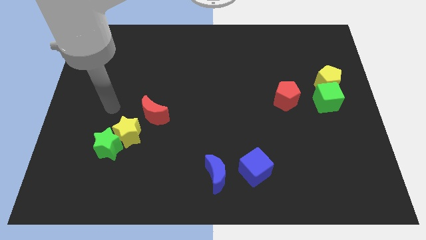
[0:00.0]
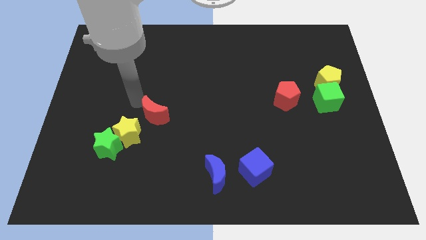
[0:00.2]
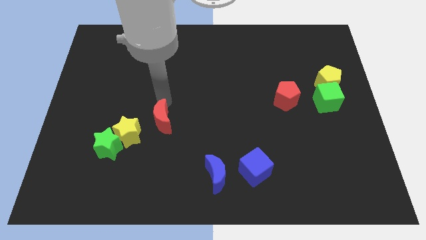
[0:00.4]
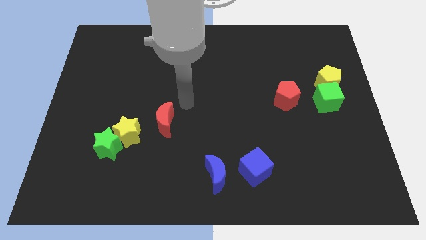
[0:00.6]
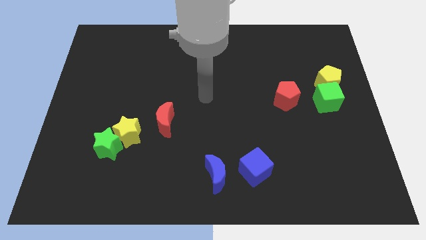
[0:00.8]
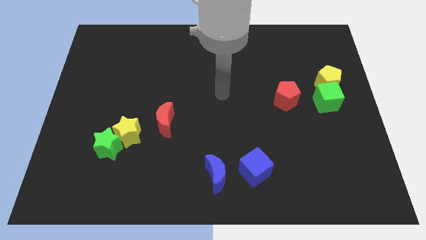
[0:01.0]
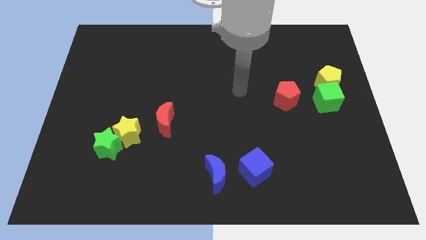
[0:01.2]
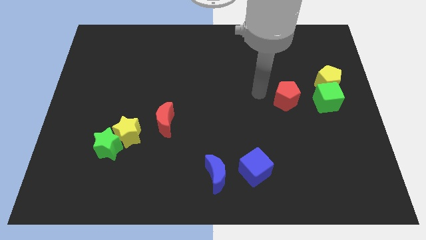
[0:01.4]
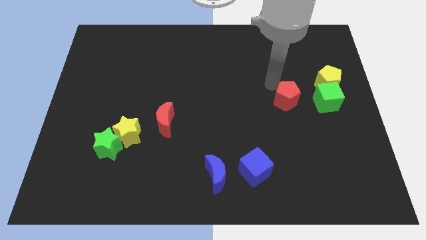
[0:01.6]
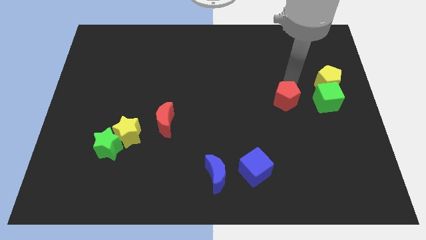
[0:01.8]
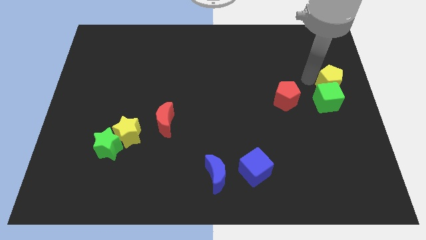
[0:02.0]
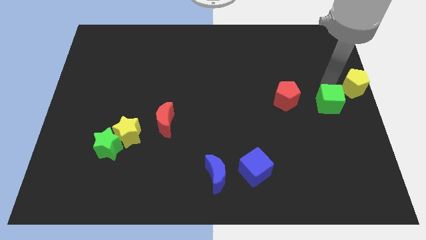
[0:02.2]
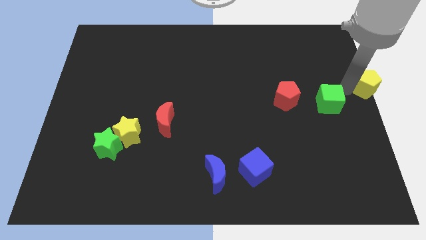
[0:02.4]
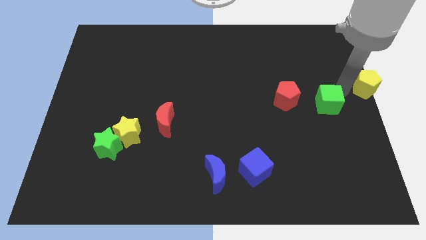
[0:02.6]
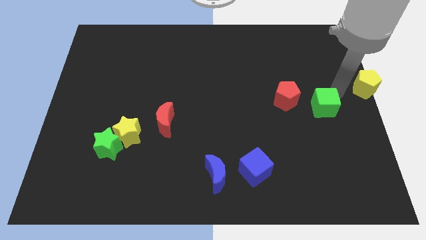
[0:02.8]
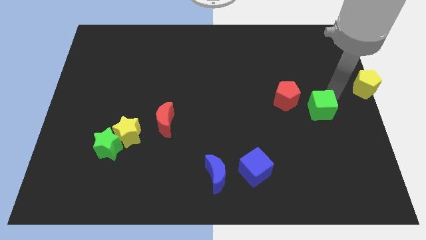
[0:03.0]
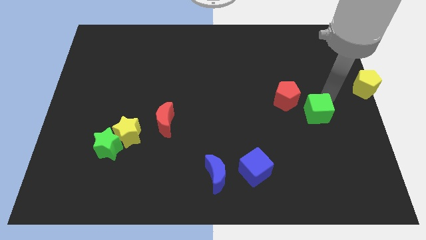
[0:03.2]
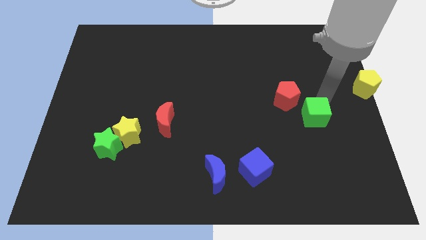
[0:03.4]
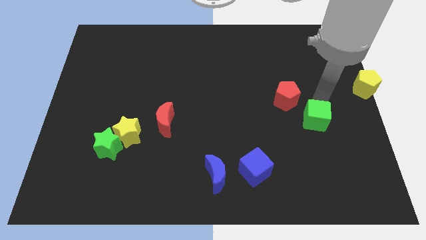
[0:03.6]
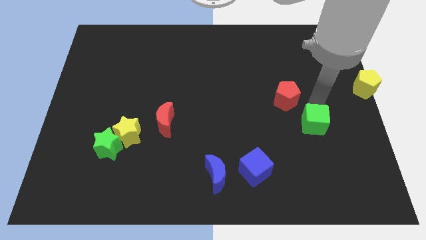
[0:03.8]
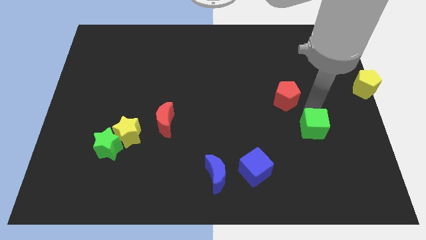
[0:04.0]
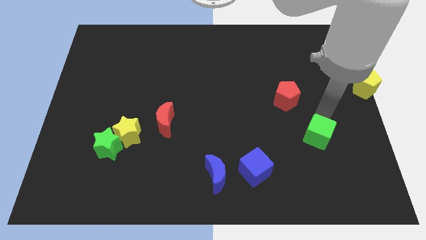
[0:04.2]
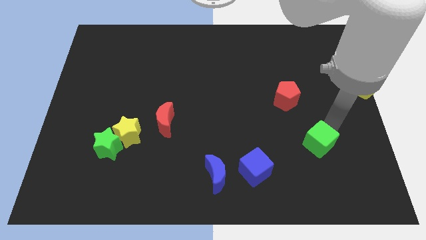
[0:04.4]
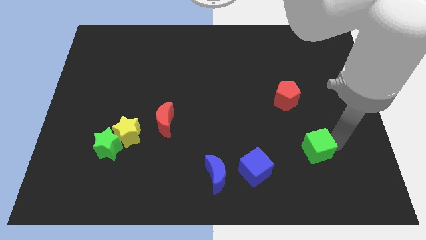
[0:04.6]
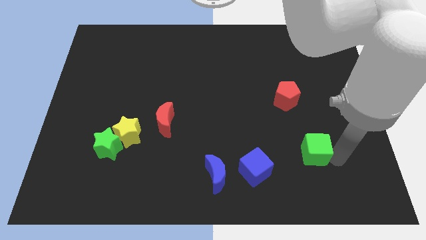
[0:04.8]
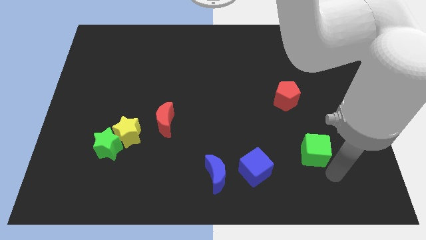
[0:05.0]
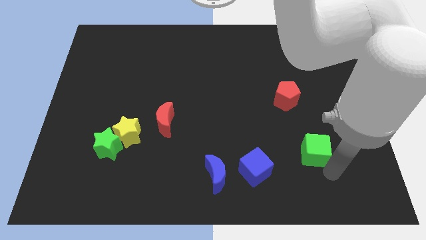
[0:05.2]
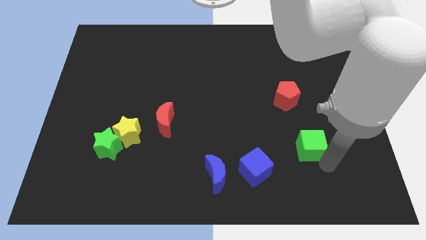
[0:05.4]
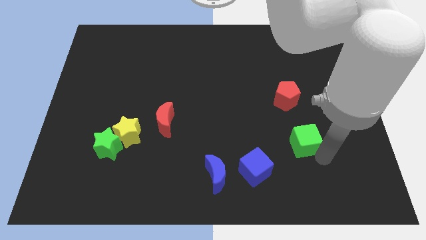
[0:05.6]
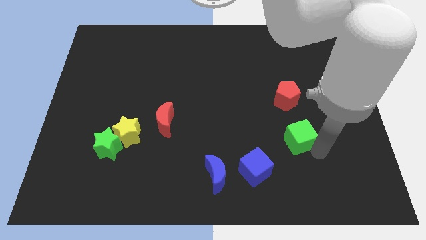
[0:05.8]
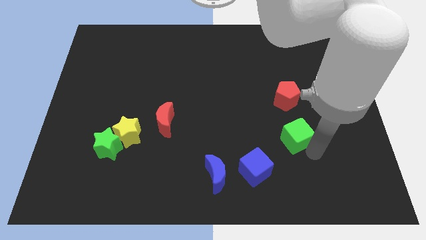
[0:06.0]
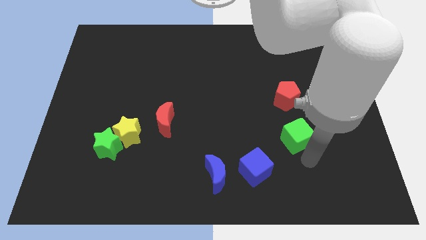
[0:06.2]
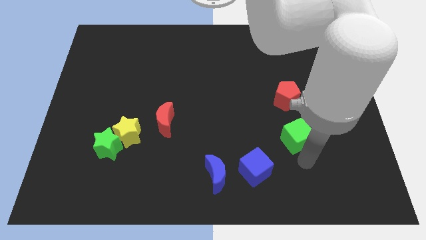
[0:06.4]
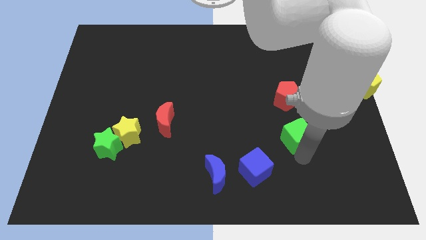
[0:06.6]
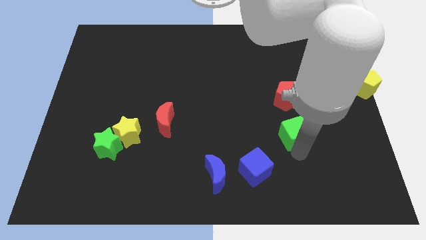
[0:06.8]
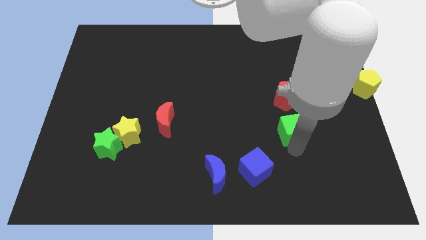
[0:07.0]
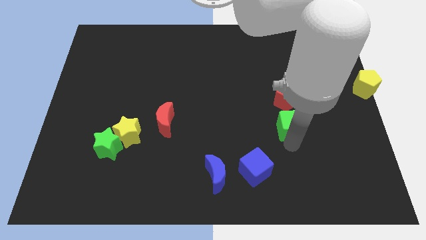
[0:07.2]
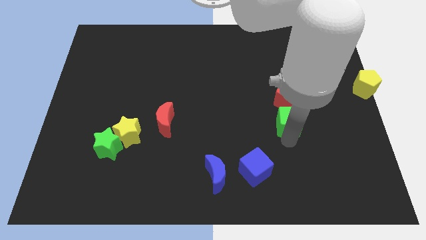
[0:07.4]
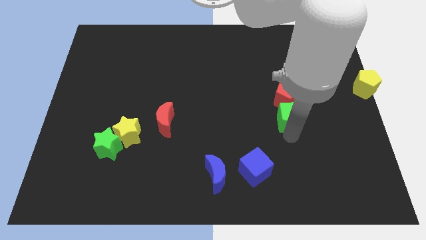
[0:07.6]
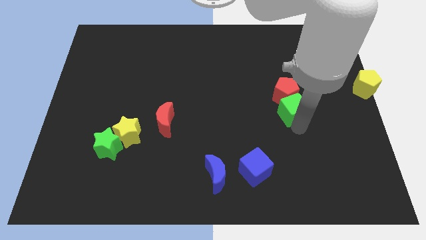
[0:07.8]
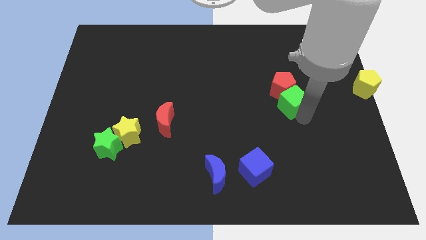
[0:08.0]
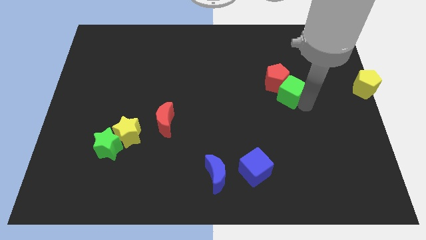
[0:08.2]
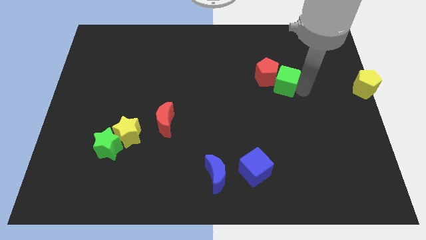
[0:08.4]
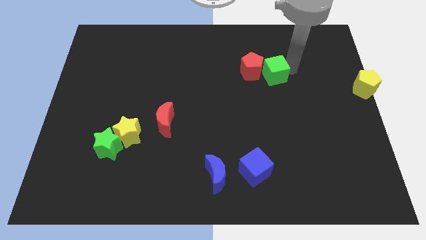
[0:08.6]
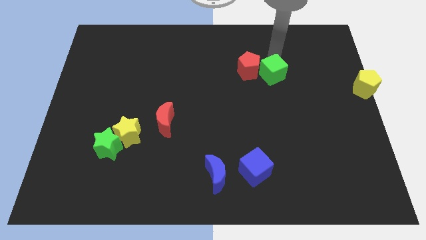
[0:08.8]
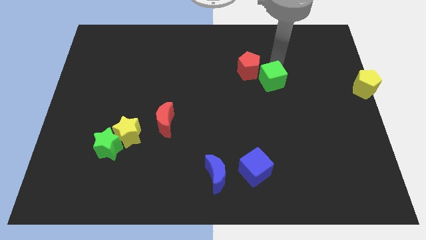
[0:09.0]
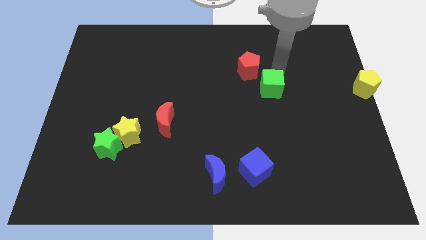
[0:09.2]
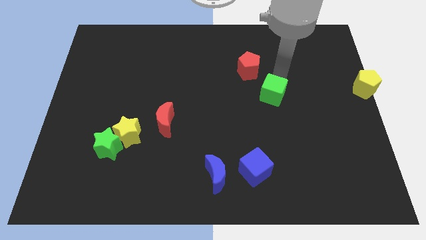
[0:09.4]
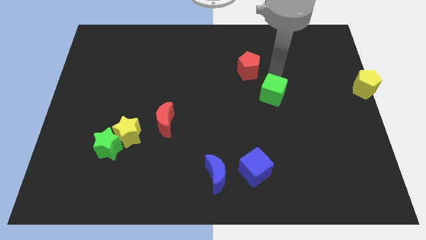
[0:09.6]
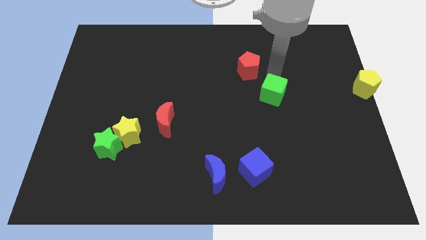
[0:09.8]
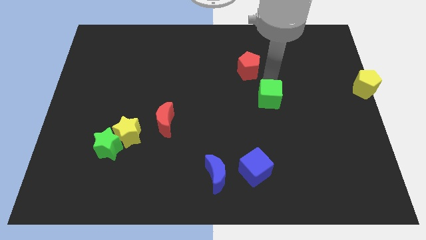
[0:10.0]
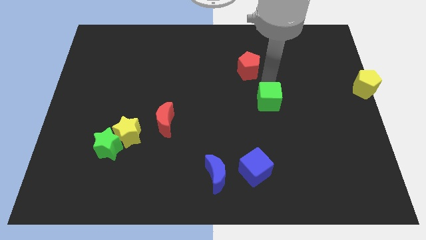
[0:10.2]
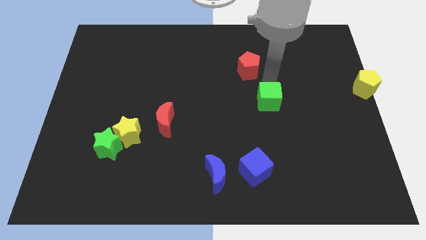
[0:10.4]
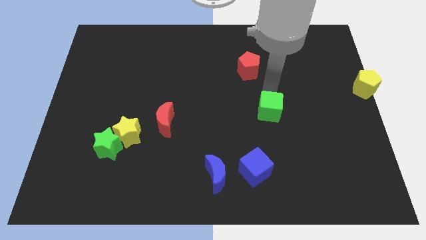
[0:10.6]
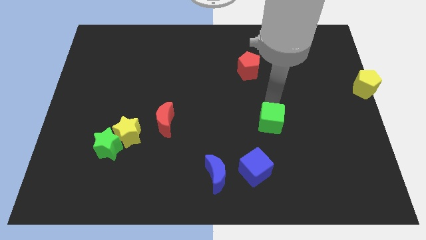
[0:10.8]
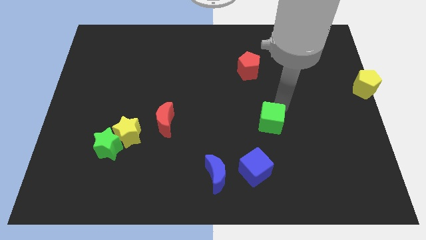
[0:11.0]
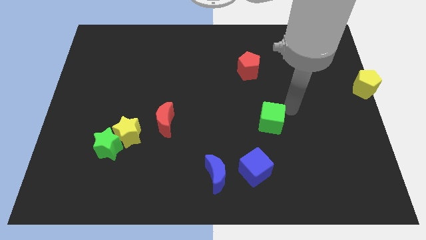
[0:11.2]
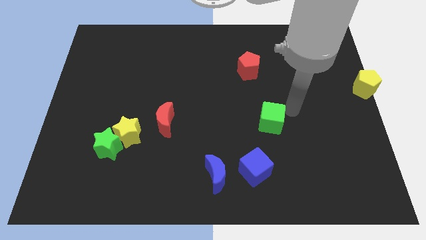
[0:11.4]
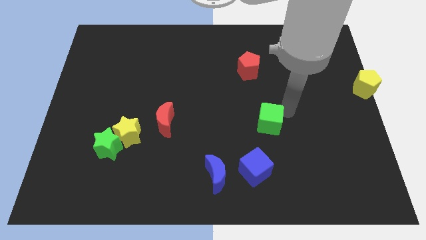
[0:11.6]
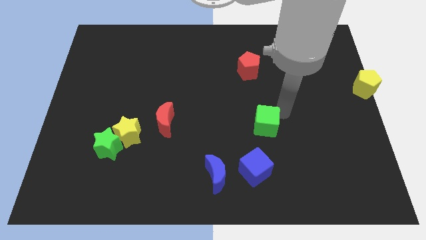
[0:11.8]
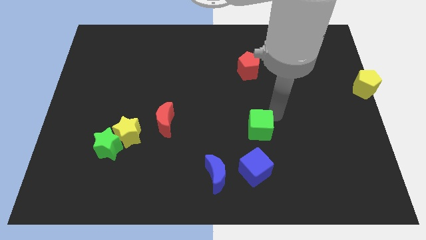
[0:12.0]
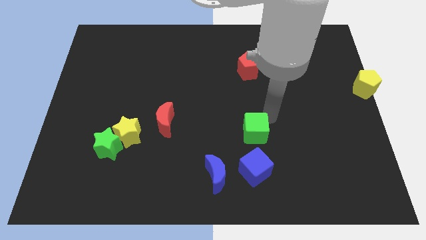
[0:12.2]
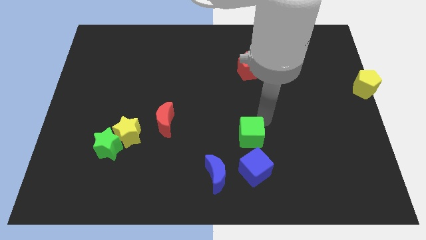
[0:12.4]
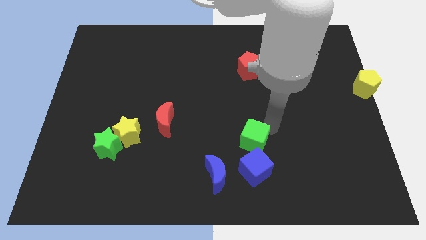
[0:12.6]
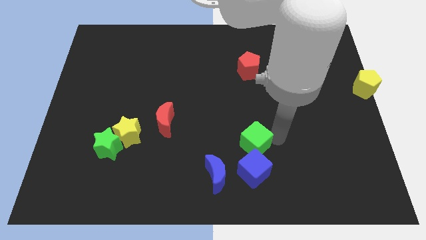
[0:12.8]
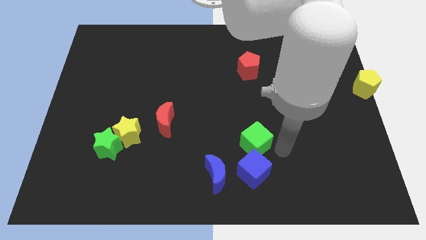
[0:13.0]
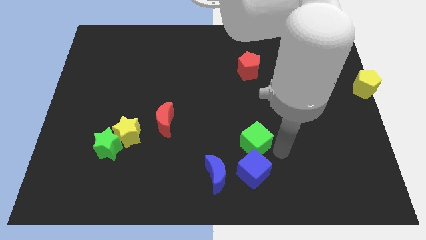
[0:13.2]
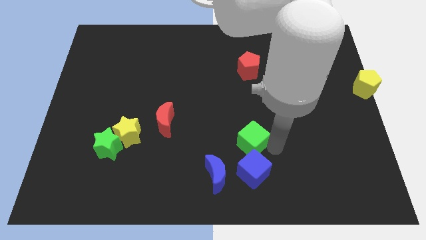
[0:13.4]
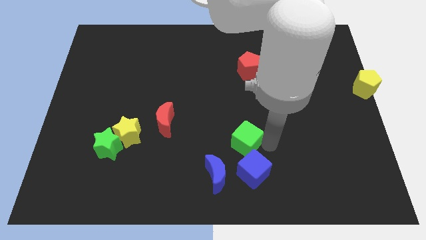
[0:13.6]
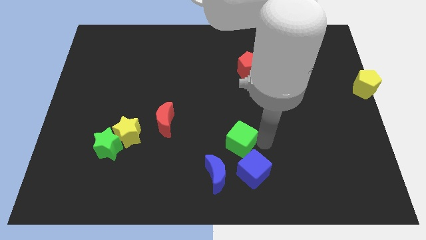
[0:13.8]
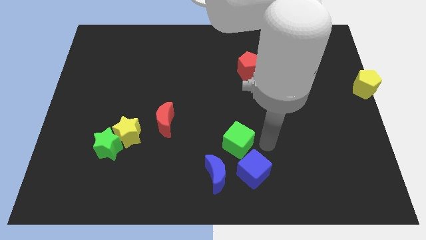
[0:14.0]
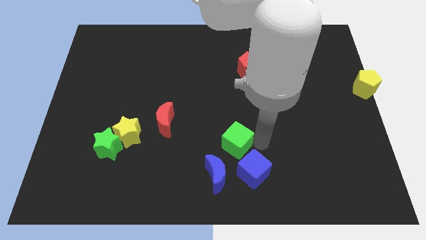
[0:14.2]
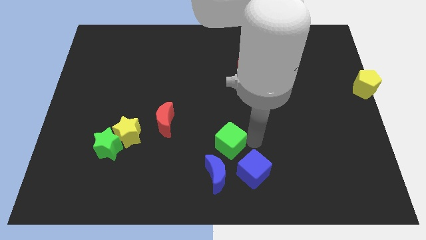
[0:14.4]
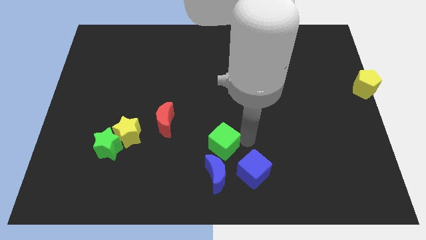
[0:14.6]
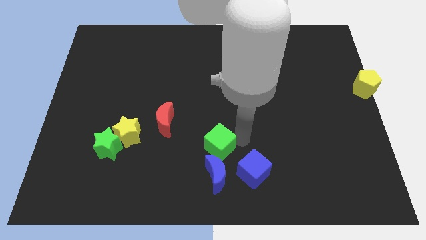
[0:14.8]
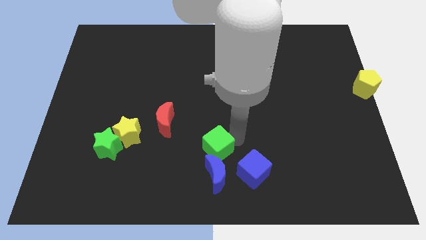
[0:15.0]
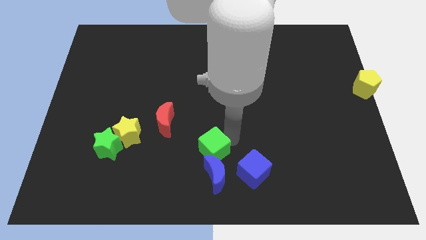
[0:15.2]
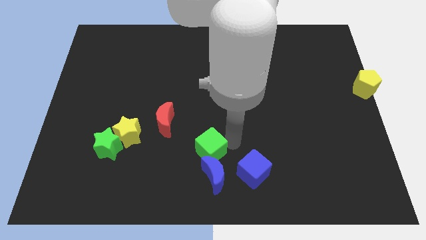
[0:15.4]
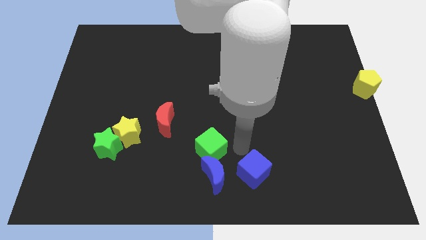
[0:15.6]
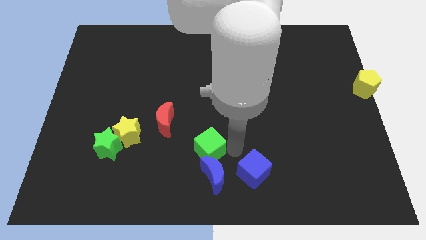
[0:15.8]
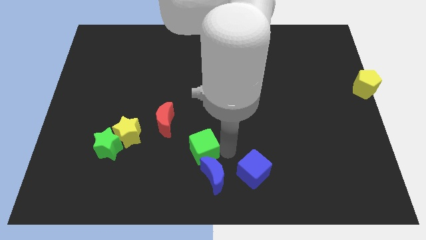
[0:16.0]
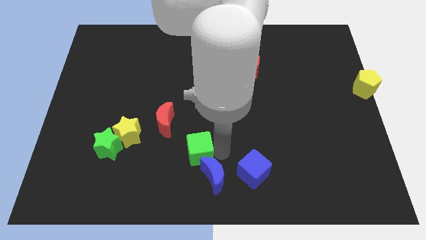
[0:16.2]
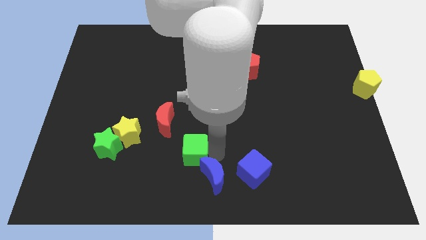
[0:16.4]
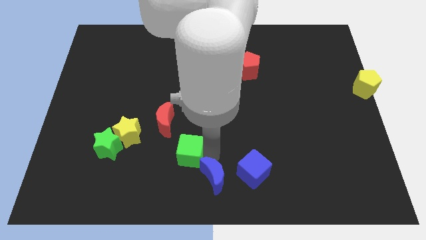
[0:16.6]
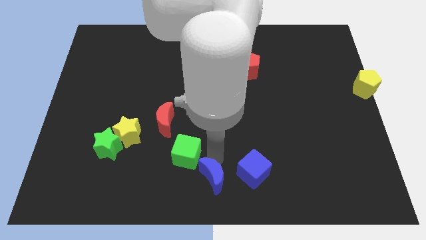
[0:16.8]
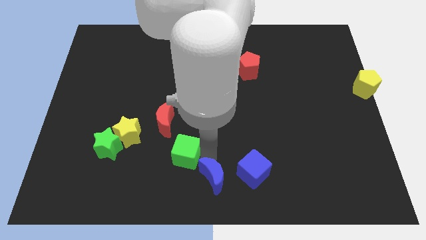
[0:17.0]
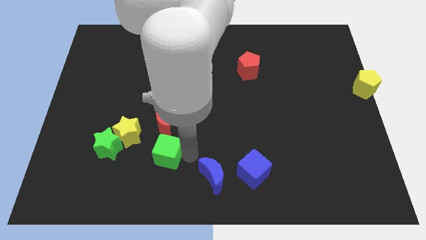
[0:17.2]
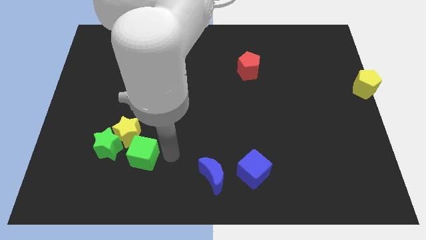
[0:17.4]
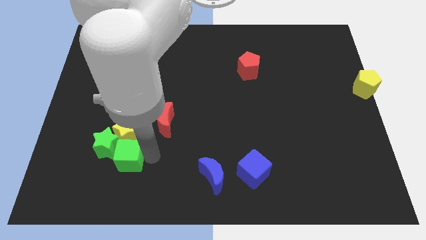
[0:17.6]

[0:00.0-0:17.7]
push the green cube towards the green star
